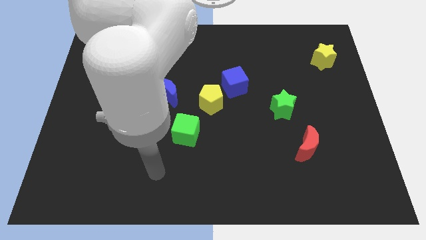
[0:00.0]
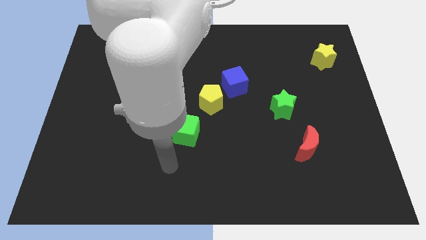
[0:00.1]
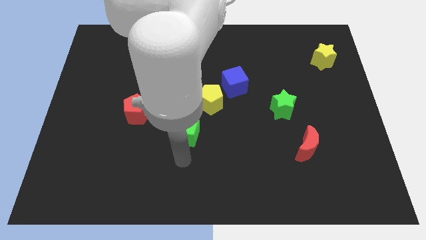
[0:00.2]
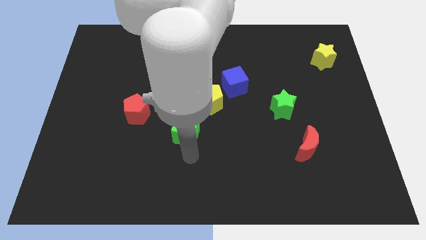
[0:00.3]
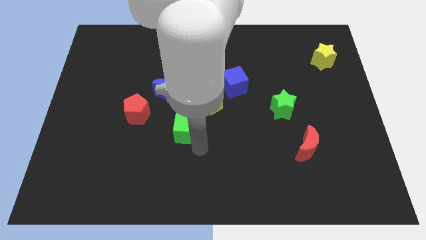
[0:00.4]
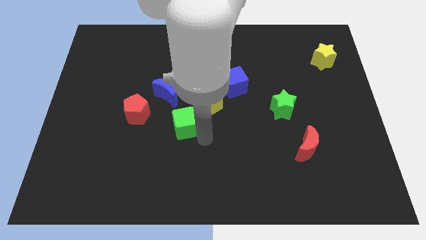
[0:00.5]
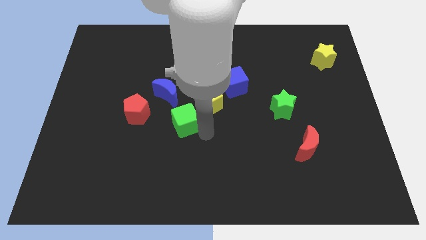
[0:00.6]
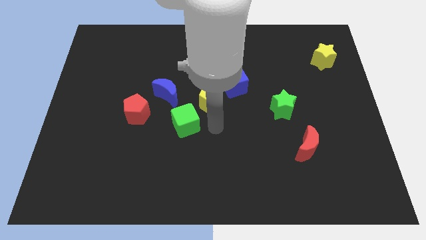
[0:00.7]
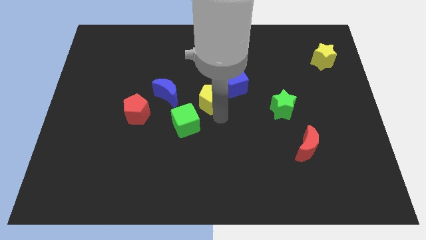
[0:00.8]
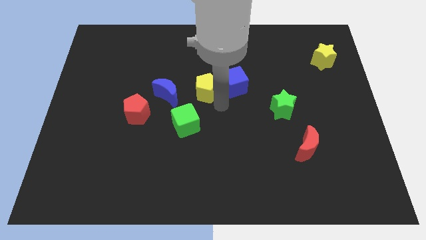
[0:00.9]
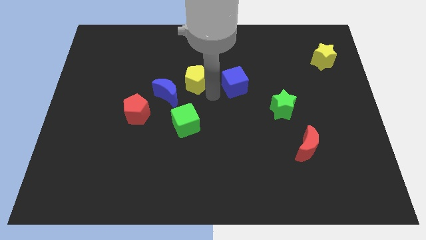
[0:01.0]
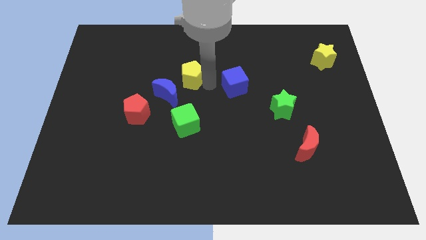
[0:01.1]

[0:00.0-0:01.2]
separate the blue cube from the yellow pentagon

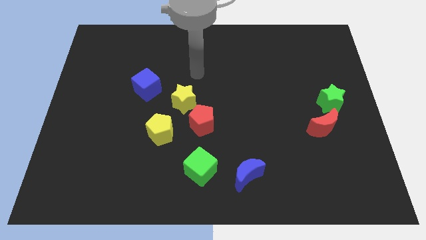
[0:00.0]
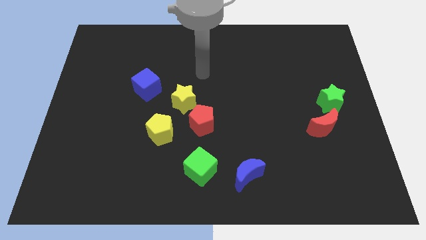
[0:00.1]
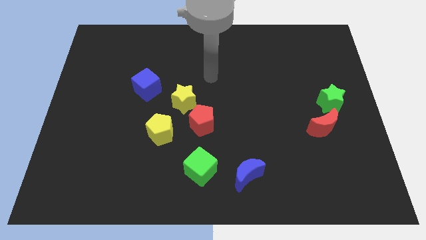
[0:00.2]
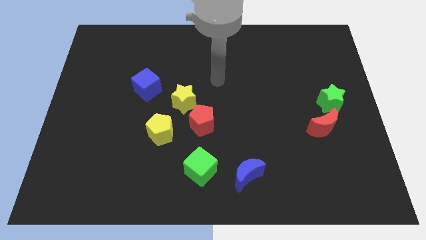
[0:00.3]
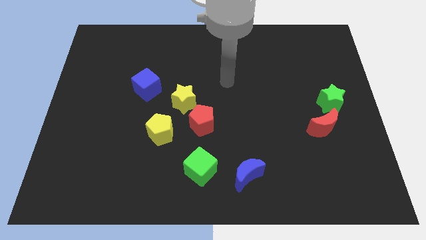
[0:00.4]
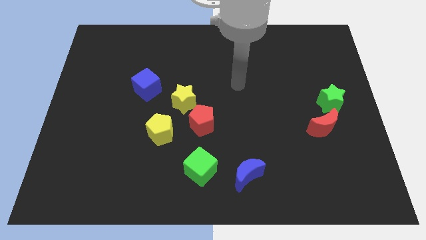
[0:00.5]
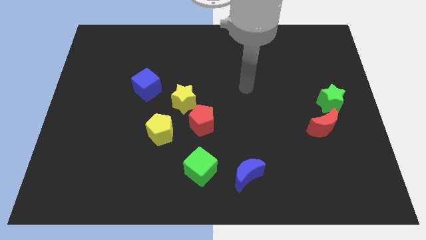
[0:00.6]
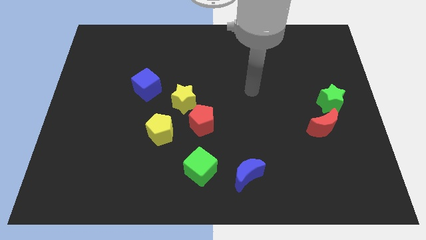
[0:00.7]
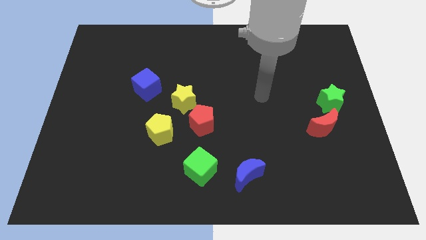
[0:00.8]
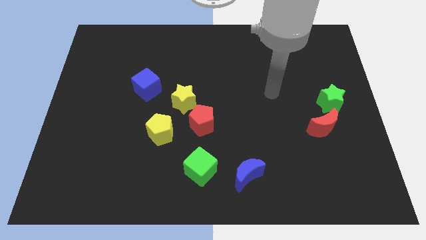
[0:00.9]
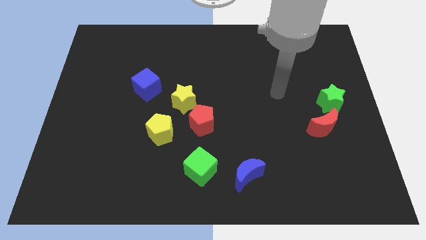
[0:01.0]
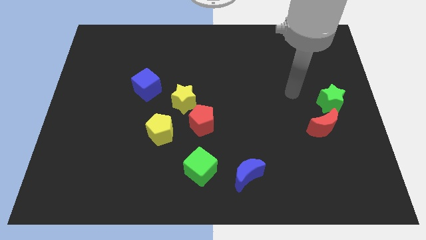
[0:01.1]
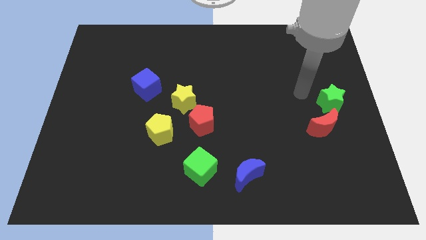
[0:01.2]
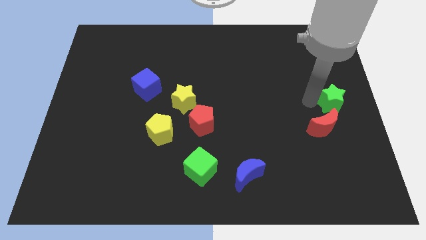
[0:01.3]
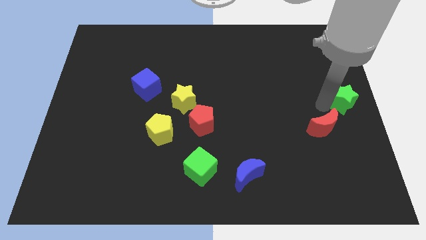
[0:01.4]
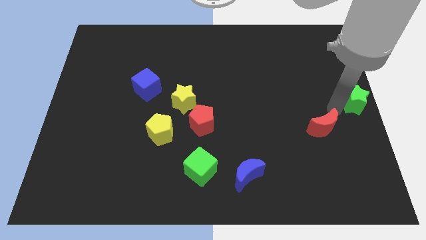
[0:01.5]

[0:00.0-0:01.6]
separate the red moon from the green star

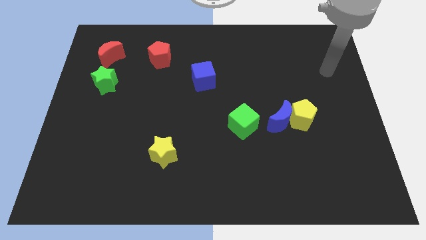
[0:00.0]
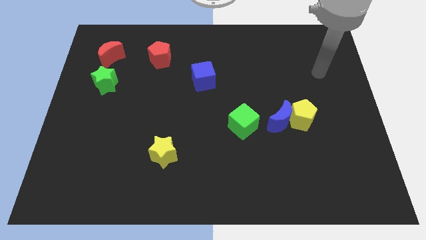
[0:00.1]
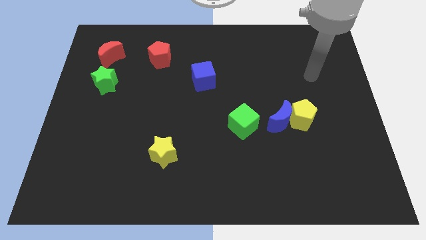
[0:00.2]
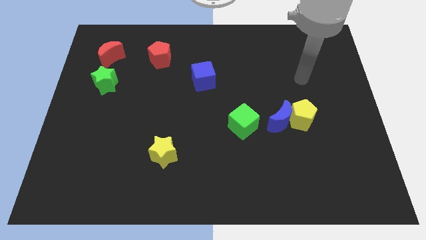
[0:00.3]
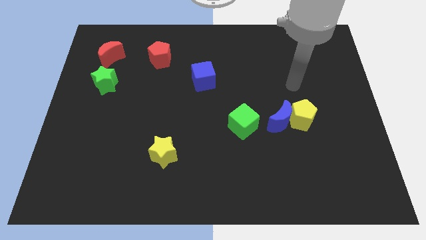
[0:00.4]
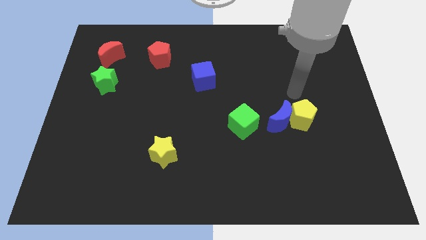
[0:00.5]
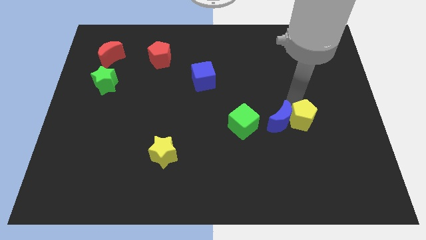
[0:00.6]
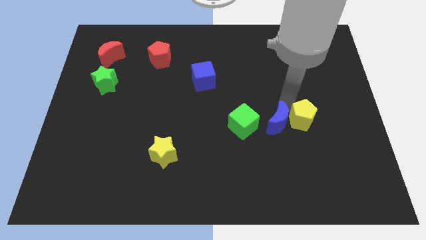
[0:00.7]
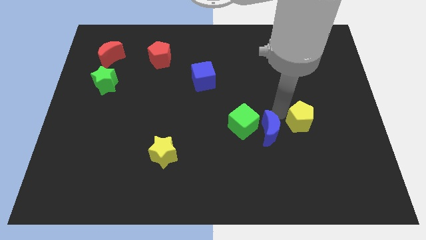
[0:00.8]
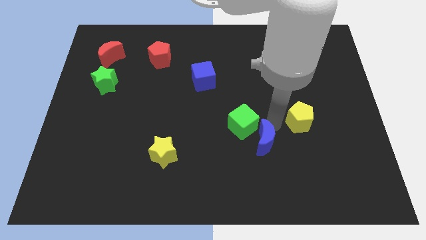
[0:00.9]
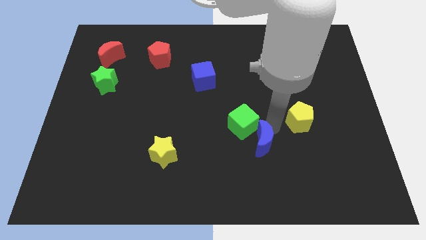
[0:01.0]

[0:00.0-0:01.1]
separate the yellow pentagon from the blue moon

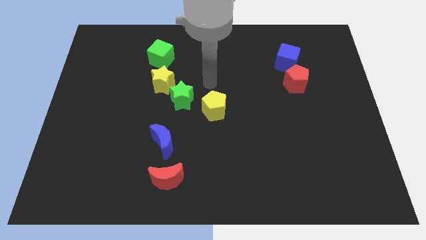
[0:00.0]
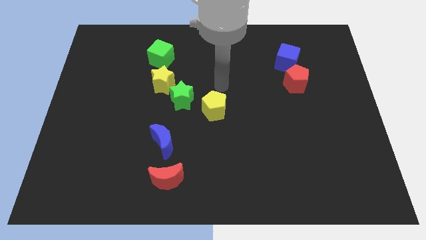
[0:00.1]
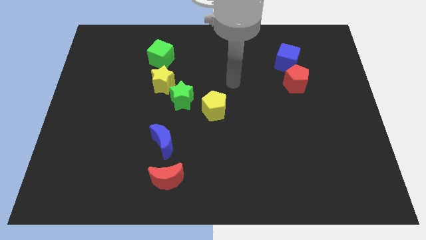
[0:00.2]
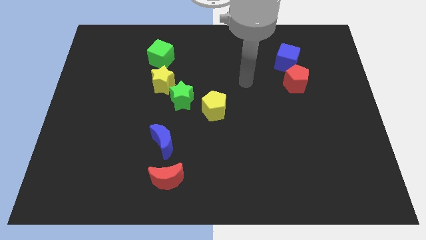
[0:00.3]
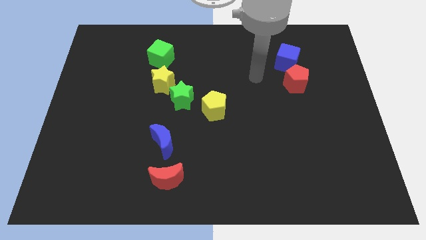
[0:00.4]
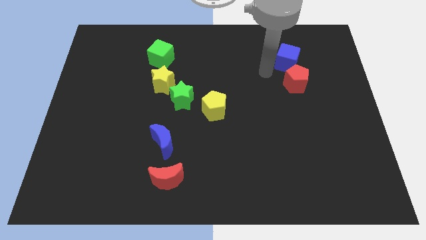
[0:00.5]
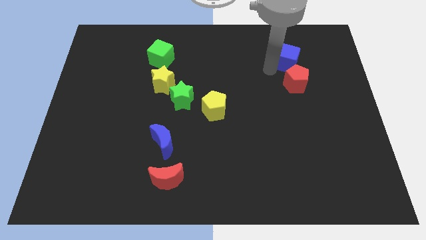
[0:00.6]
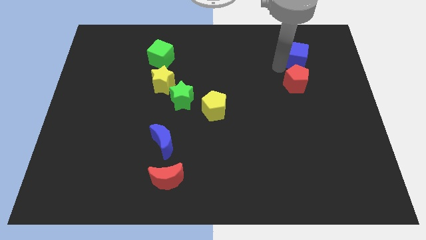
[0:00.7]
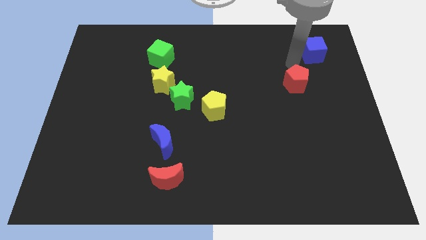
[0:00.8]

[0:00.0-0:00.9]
move the red pentagon away from the blue cube

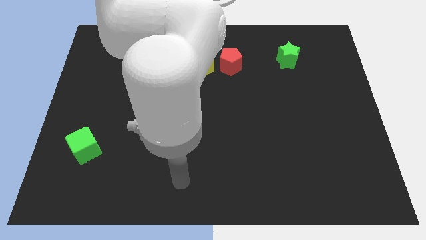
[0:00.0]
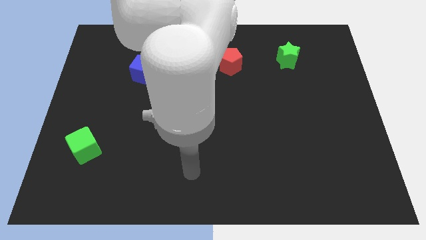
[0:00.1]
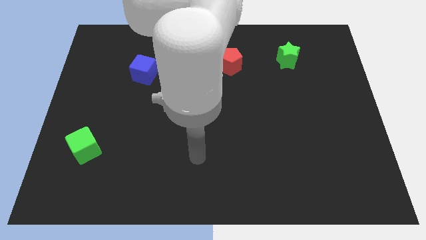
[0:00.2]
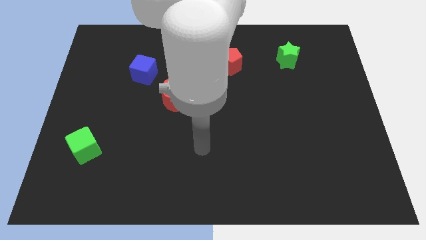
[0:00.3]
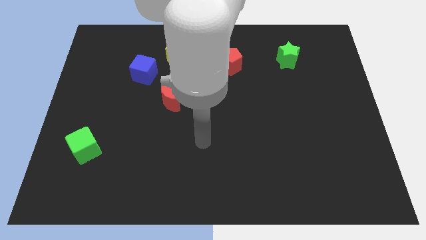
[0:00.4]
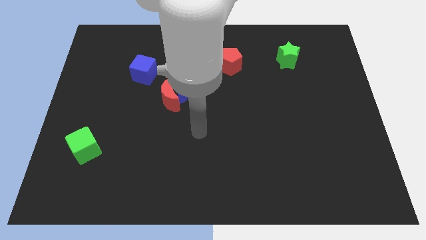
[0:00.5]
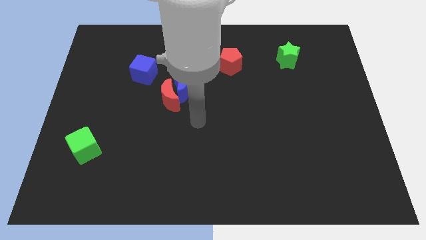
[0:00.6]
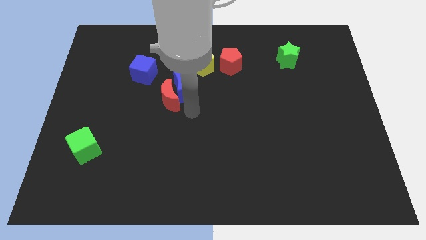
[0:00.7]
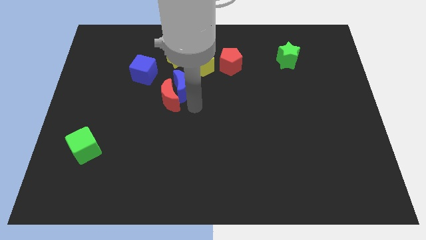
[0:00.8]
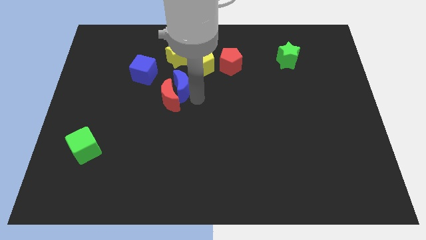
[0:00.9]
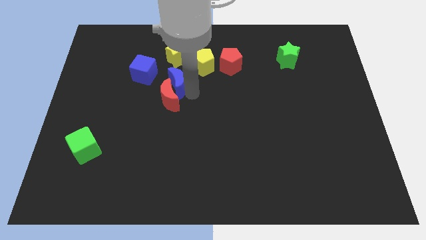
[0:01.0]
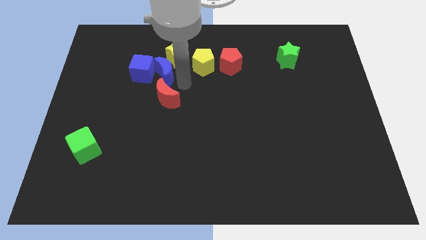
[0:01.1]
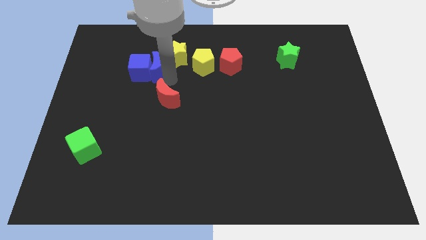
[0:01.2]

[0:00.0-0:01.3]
move the red moon away from the blue moon

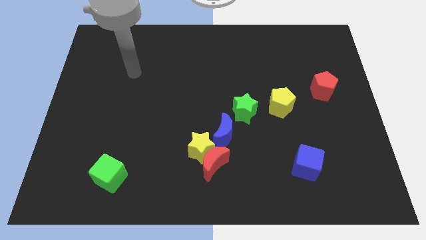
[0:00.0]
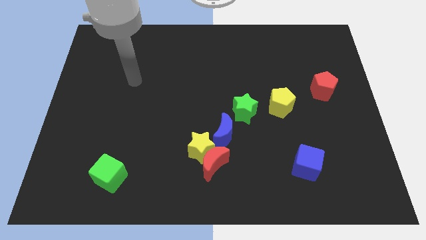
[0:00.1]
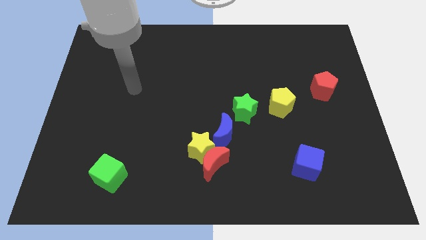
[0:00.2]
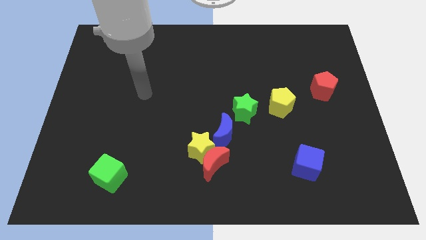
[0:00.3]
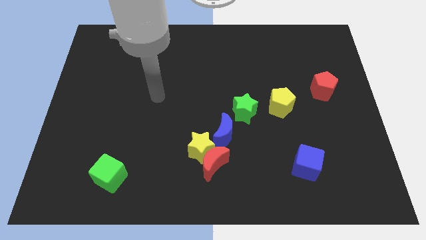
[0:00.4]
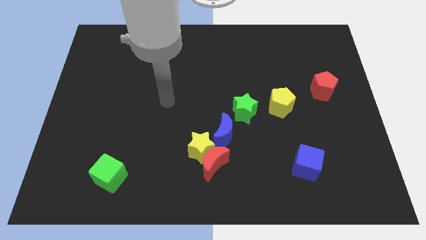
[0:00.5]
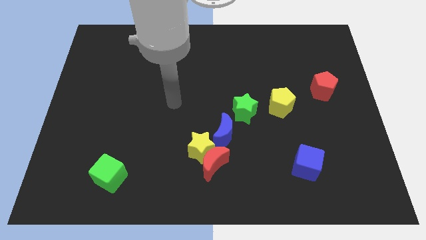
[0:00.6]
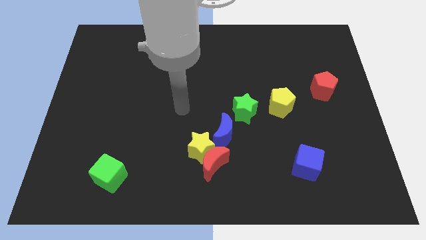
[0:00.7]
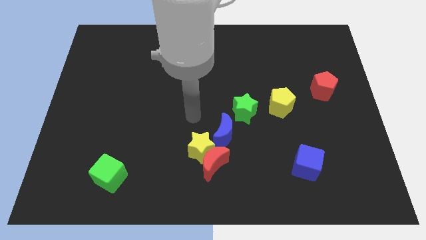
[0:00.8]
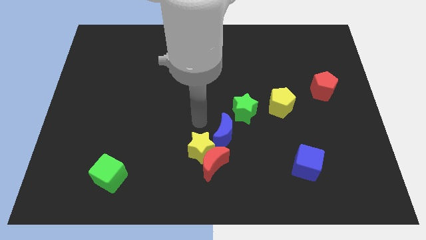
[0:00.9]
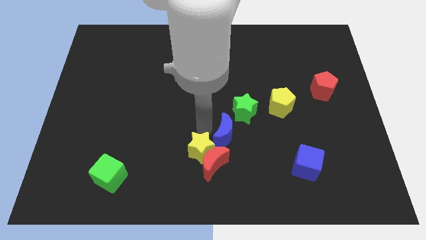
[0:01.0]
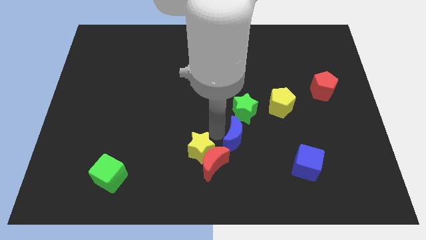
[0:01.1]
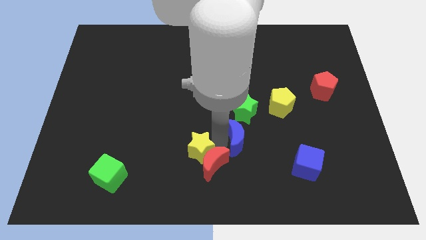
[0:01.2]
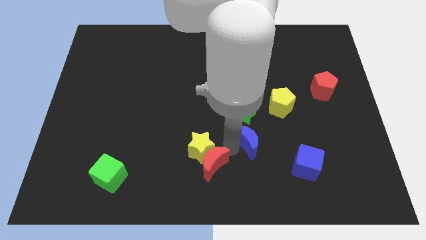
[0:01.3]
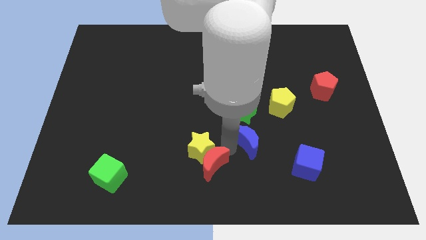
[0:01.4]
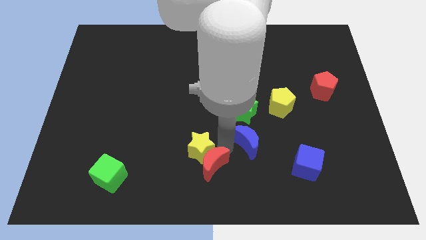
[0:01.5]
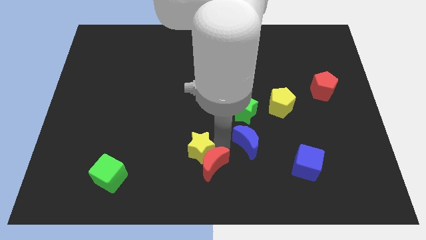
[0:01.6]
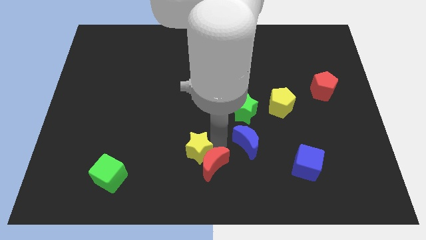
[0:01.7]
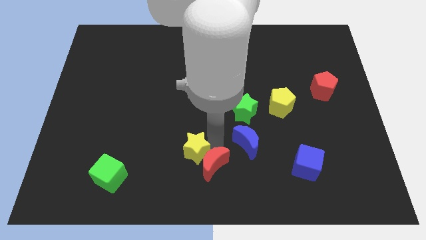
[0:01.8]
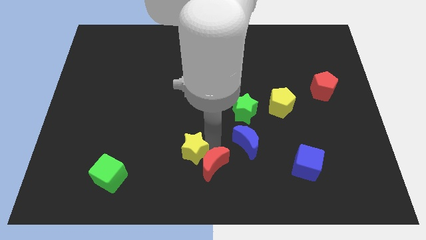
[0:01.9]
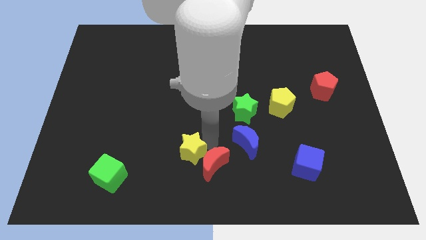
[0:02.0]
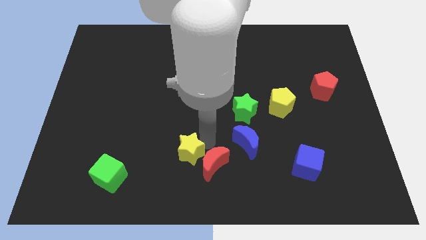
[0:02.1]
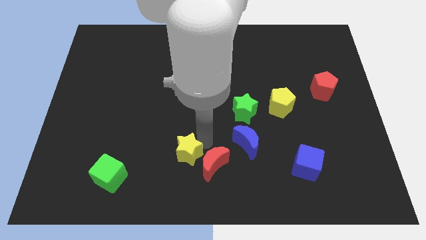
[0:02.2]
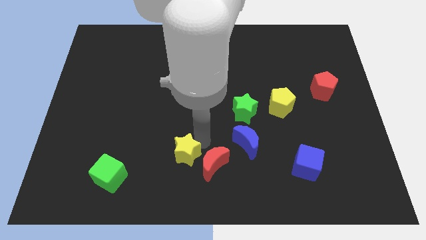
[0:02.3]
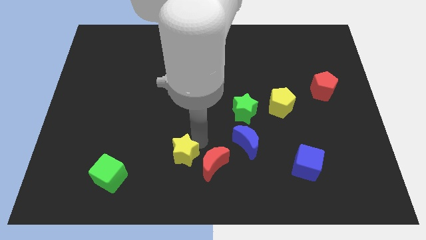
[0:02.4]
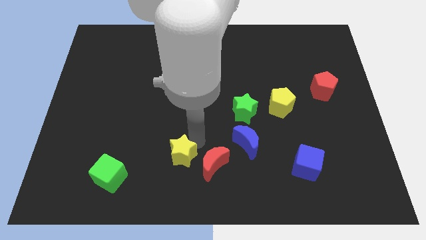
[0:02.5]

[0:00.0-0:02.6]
pull the yellow star apart from the red moon and blue moon

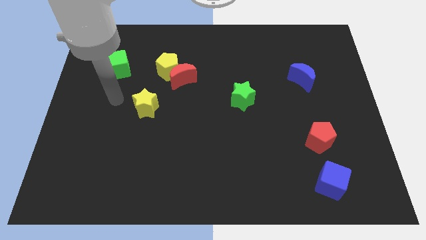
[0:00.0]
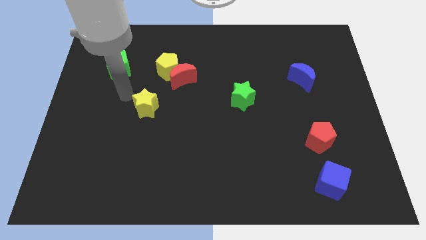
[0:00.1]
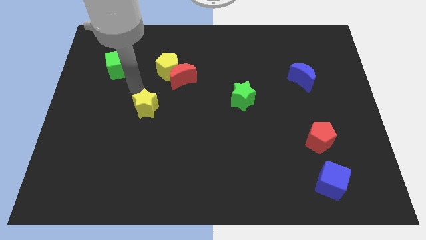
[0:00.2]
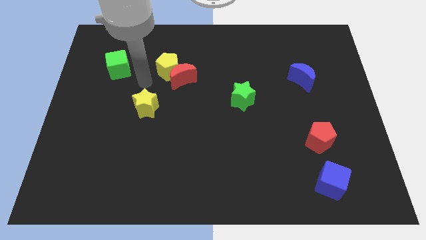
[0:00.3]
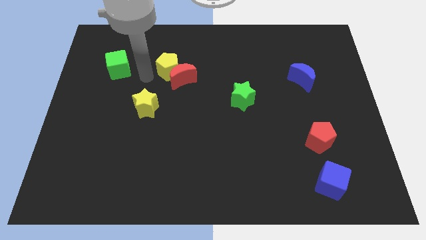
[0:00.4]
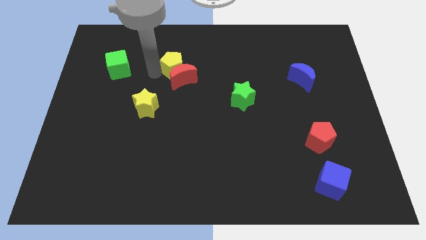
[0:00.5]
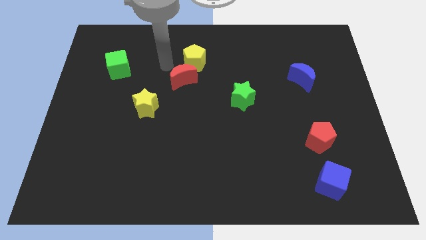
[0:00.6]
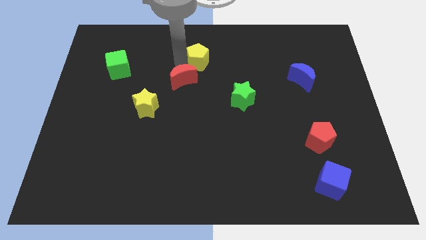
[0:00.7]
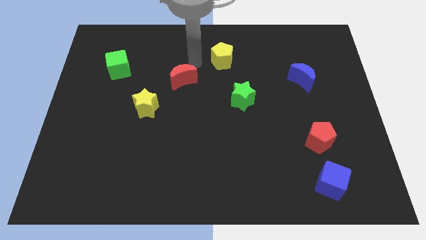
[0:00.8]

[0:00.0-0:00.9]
move the red moon away from the yellow pentagon
